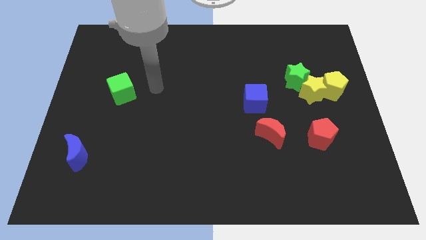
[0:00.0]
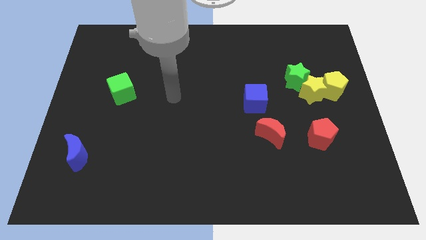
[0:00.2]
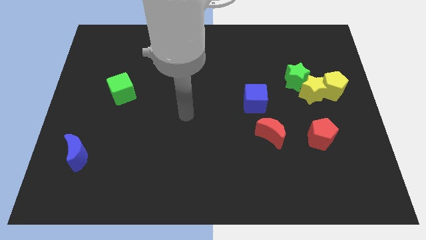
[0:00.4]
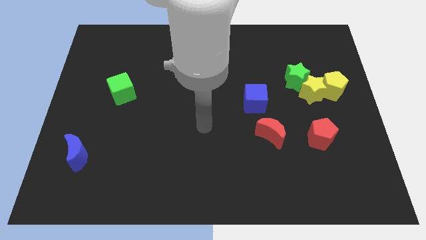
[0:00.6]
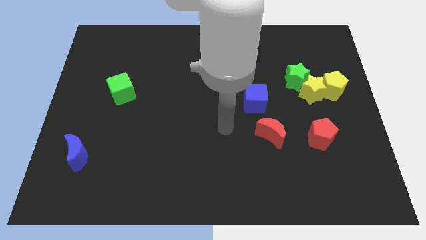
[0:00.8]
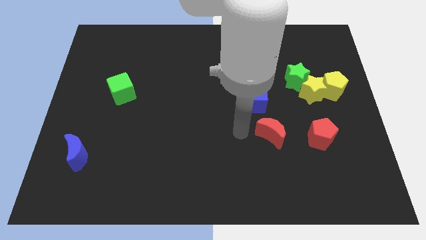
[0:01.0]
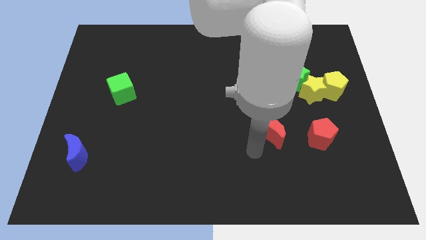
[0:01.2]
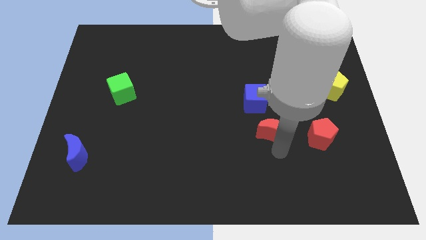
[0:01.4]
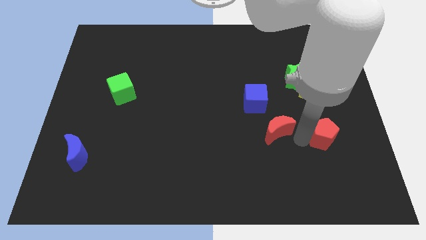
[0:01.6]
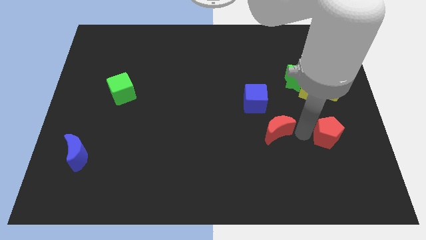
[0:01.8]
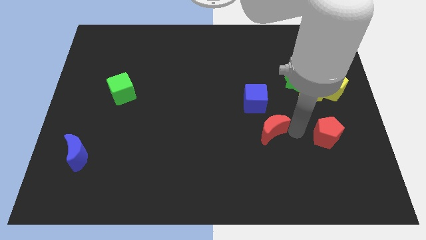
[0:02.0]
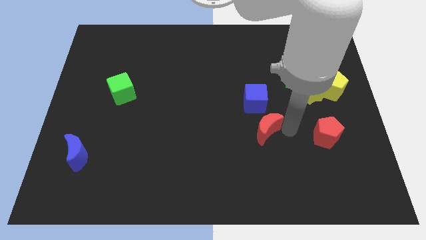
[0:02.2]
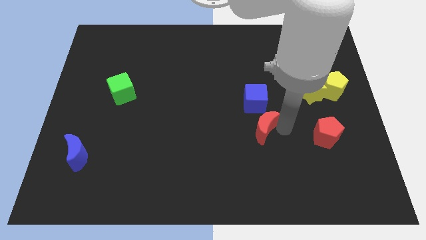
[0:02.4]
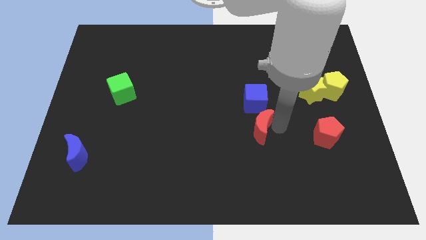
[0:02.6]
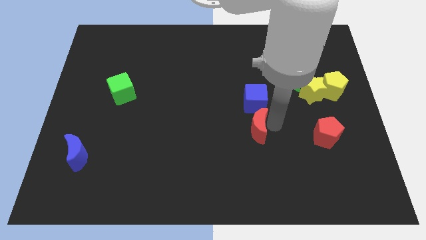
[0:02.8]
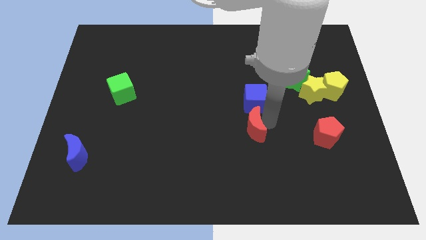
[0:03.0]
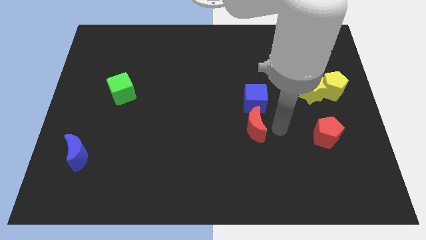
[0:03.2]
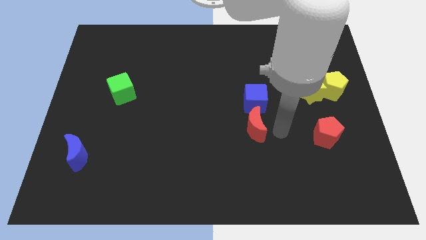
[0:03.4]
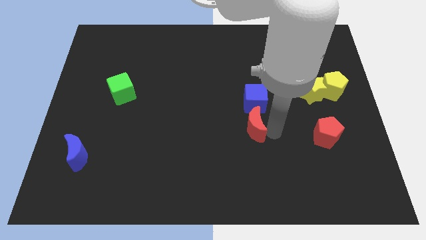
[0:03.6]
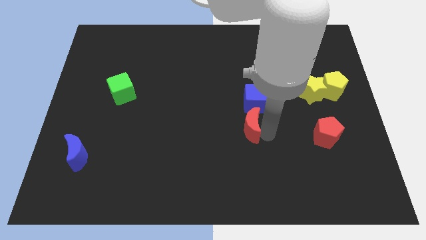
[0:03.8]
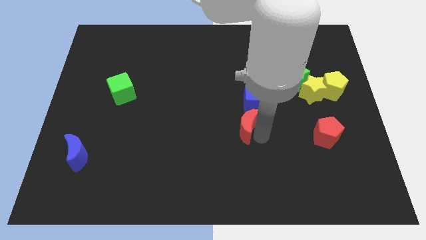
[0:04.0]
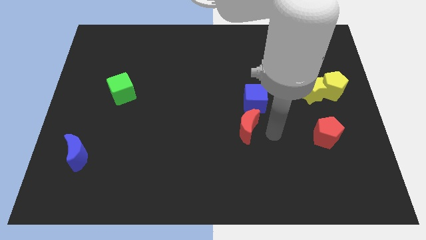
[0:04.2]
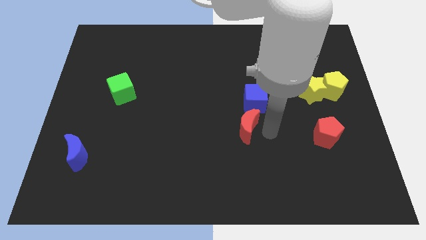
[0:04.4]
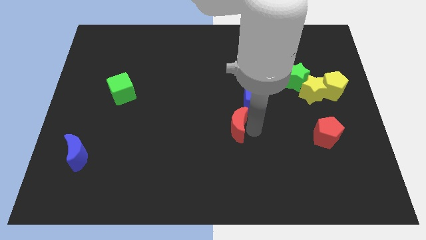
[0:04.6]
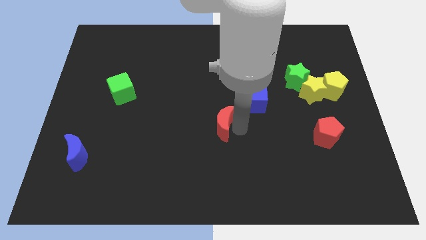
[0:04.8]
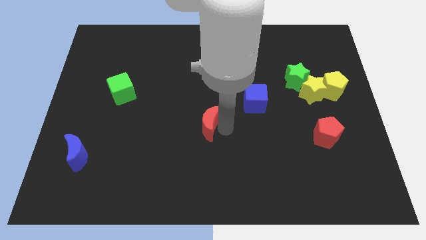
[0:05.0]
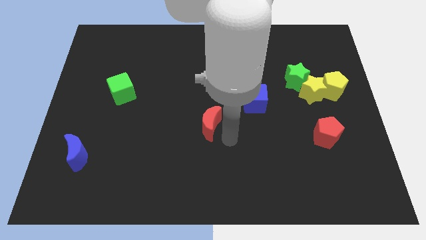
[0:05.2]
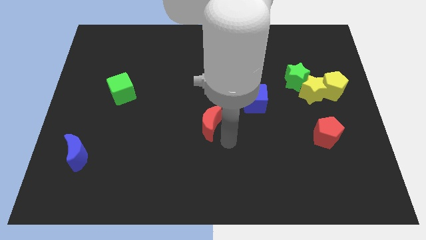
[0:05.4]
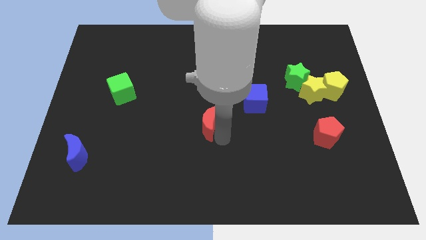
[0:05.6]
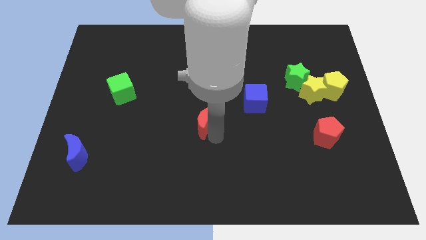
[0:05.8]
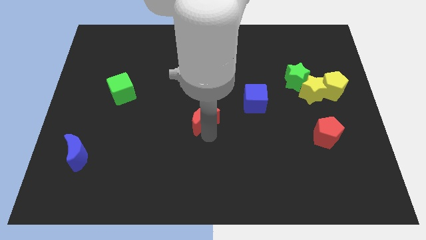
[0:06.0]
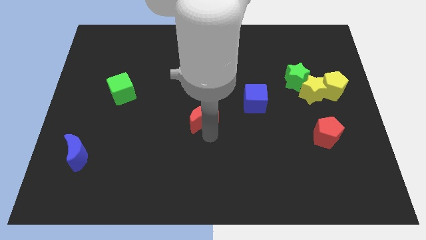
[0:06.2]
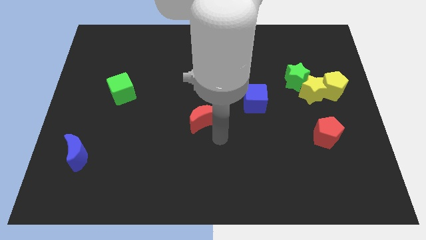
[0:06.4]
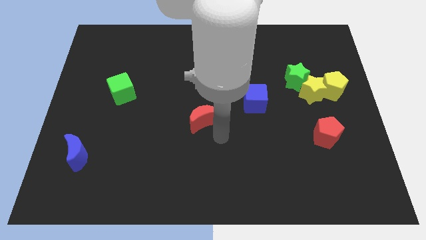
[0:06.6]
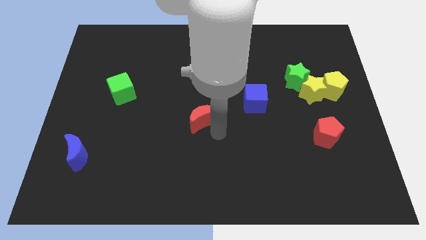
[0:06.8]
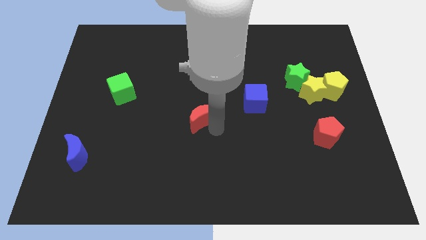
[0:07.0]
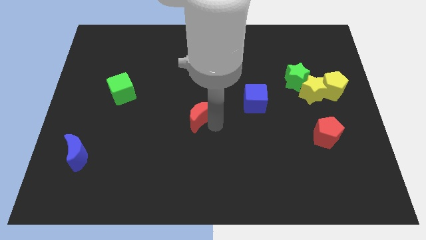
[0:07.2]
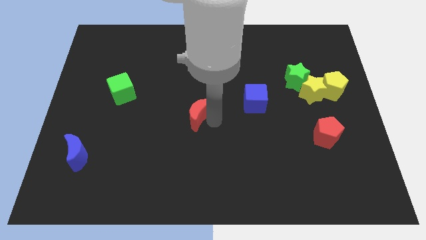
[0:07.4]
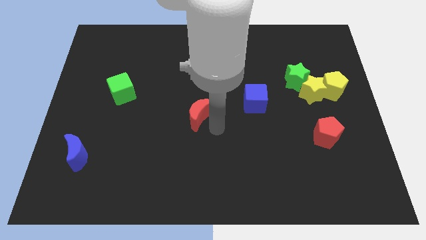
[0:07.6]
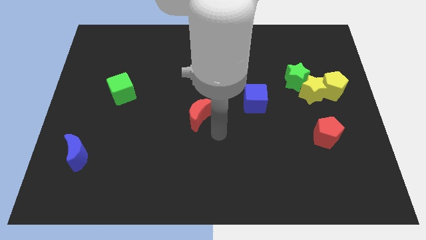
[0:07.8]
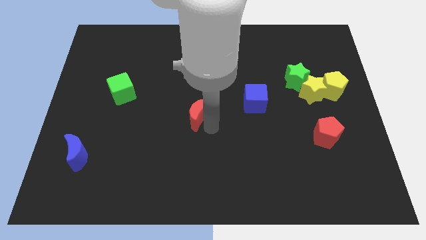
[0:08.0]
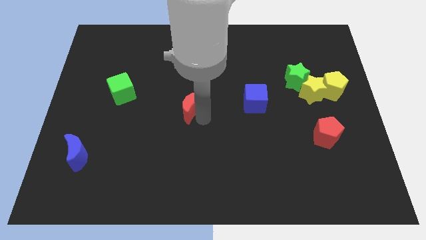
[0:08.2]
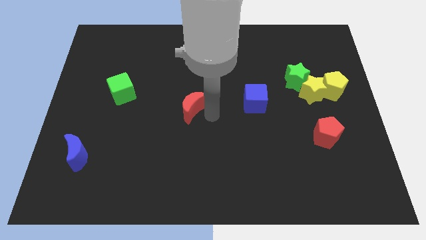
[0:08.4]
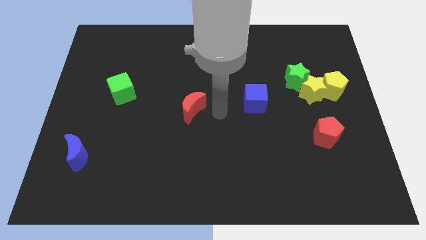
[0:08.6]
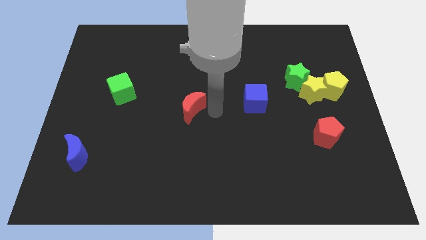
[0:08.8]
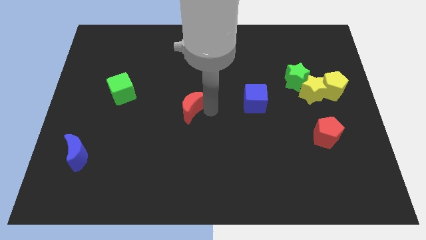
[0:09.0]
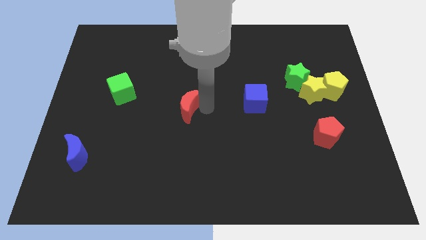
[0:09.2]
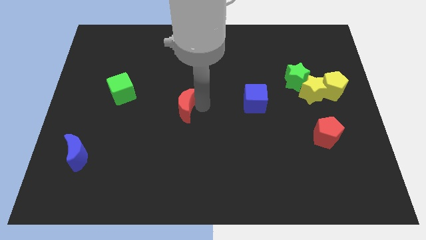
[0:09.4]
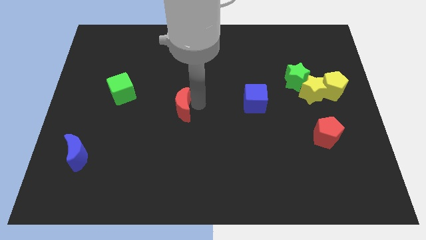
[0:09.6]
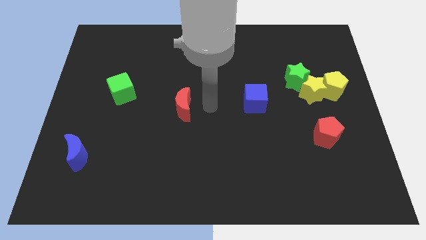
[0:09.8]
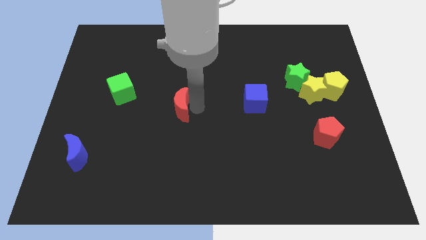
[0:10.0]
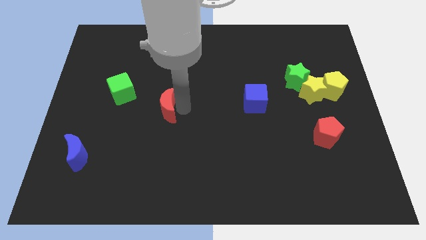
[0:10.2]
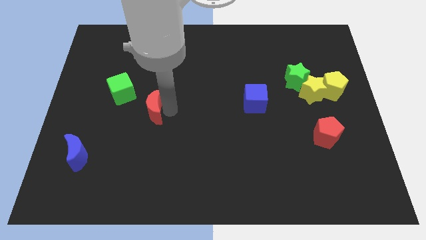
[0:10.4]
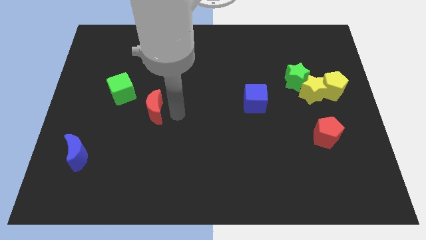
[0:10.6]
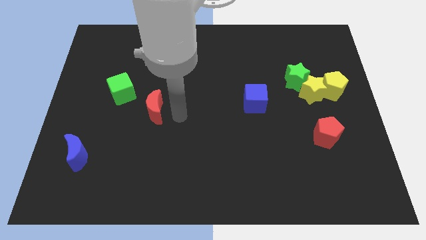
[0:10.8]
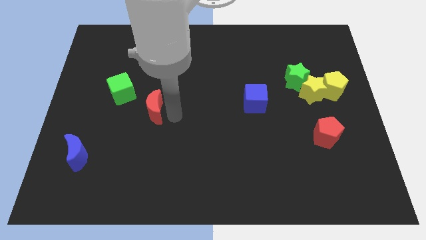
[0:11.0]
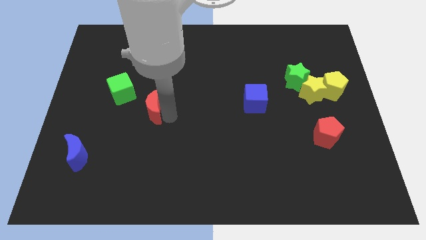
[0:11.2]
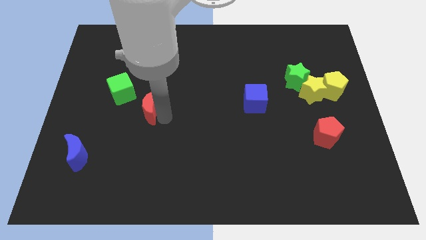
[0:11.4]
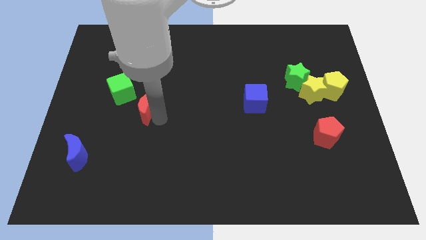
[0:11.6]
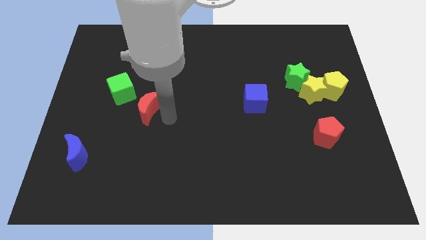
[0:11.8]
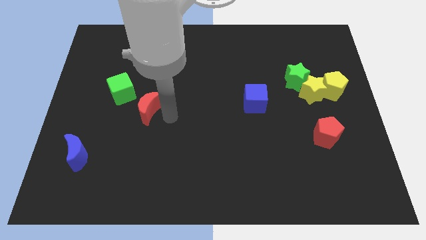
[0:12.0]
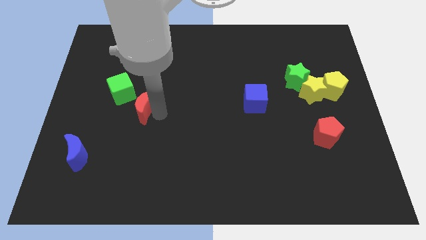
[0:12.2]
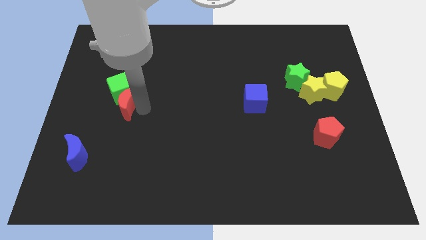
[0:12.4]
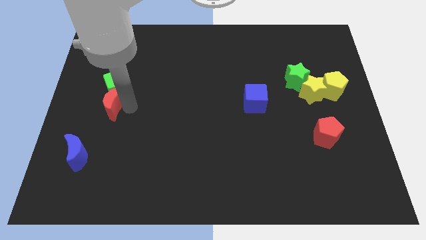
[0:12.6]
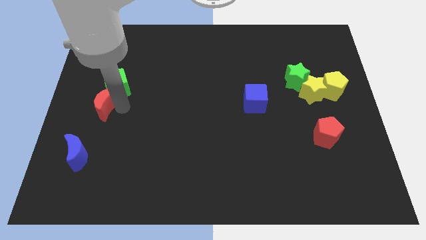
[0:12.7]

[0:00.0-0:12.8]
slide the red moon to the left side

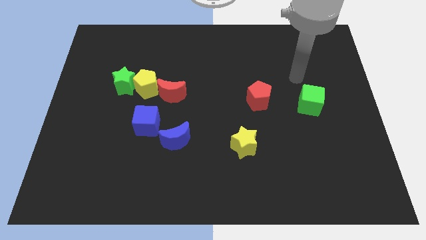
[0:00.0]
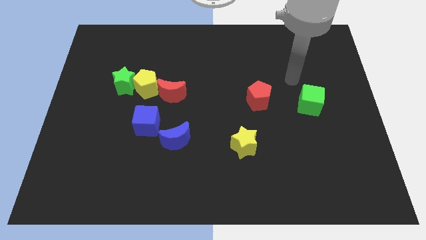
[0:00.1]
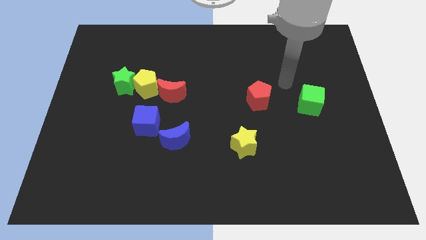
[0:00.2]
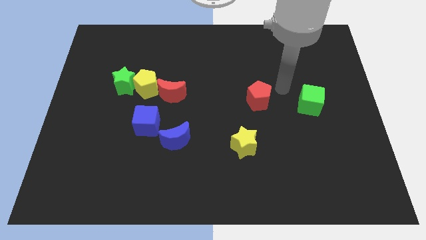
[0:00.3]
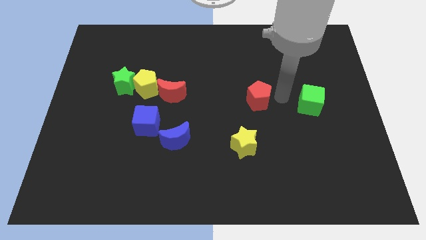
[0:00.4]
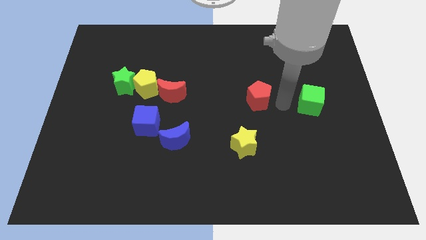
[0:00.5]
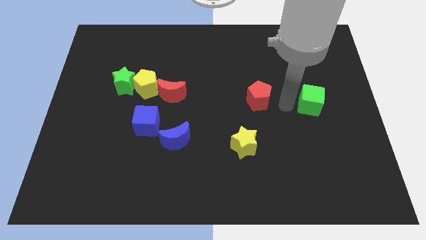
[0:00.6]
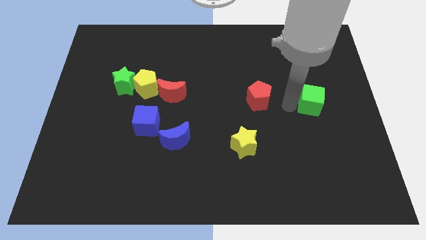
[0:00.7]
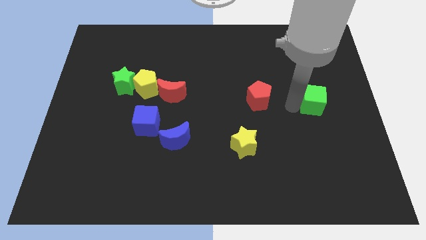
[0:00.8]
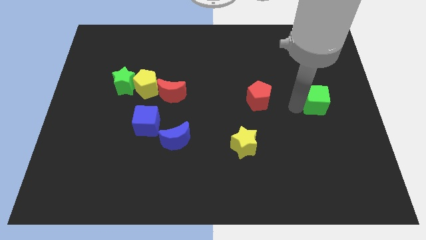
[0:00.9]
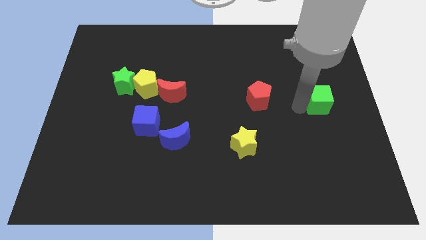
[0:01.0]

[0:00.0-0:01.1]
push the green cube to the center right
